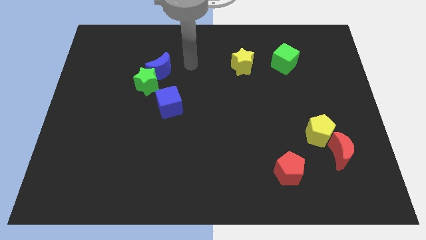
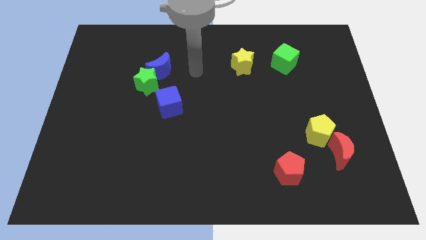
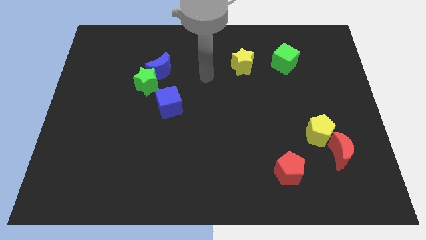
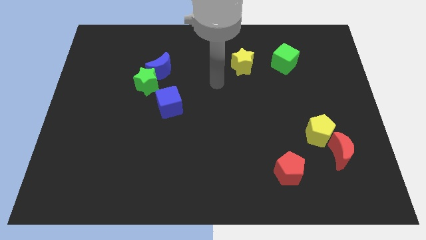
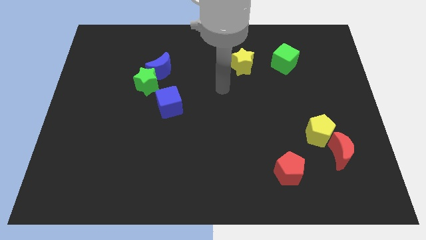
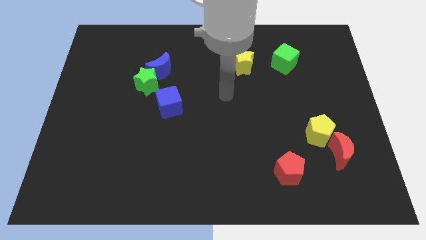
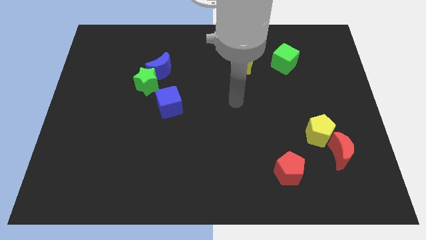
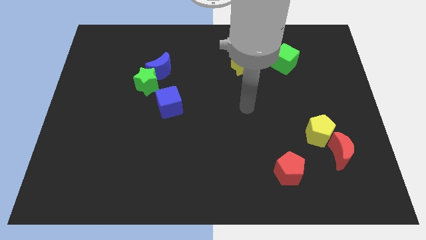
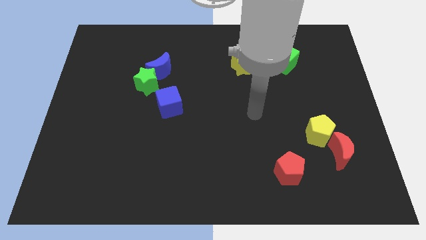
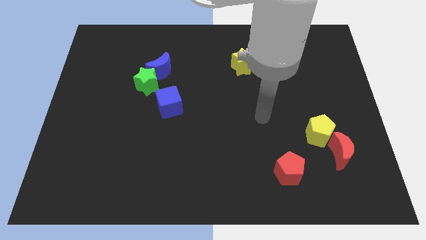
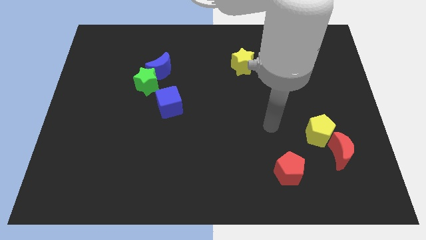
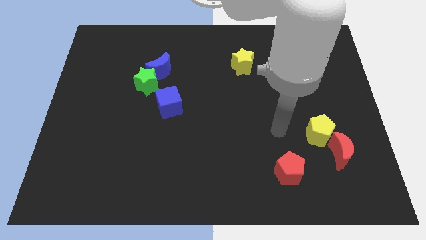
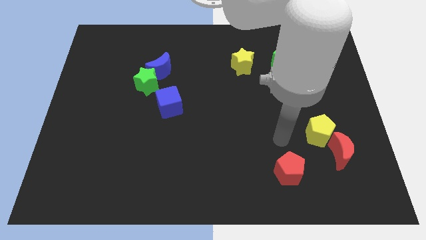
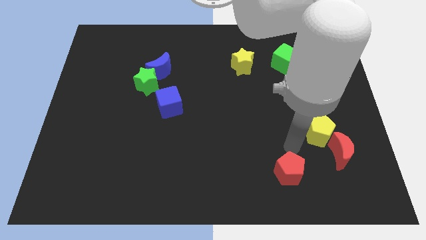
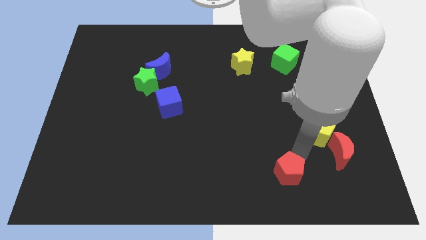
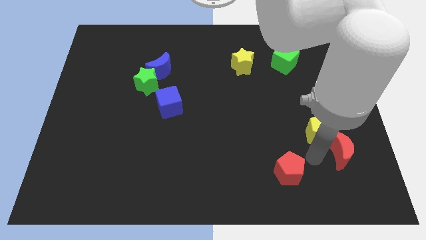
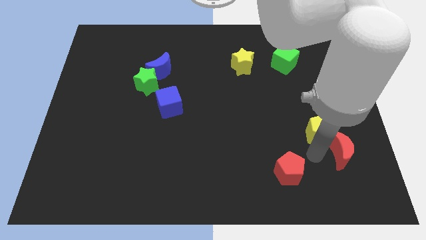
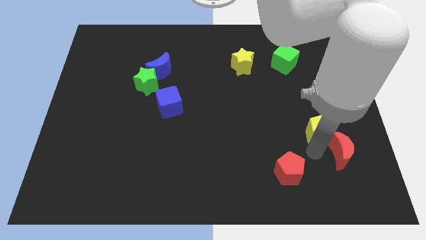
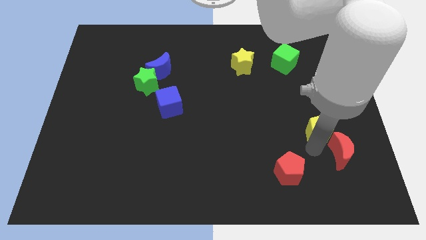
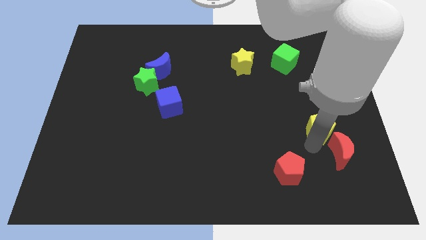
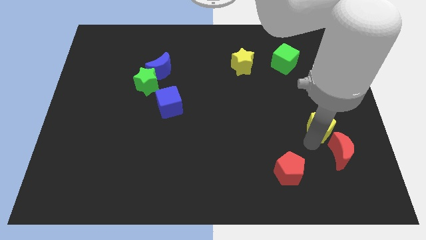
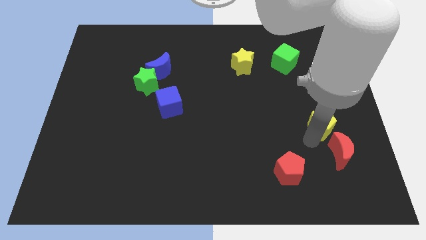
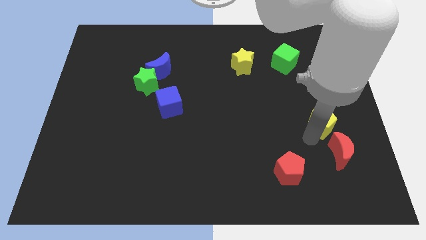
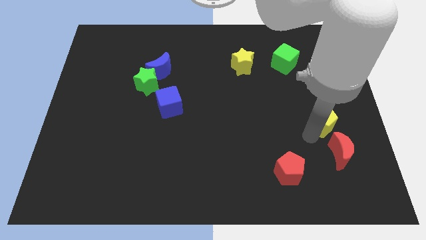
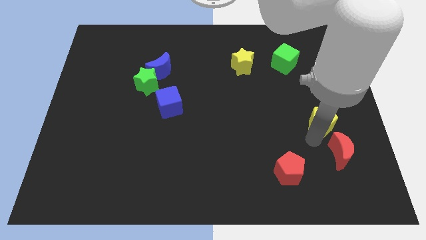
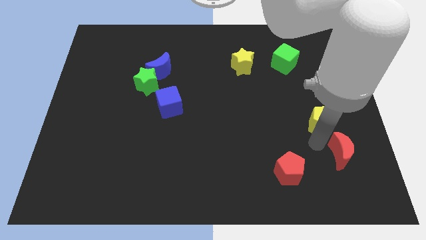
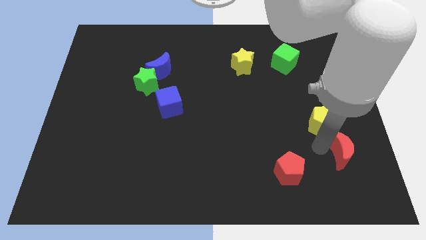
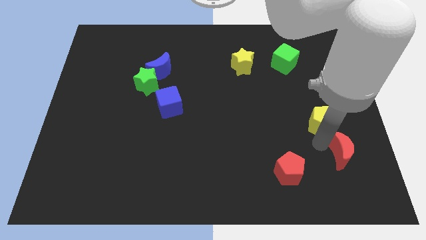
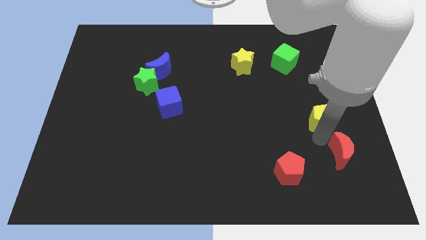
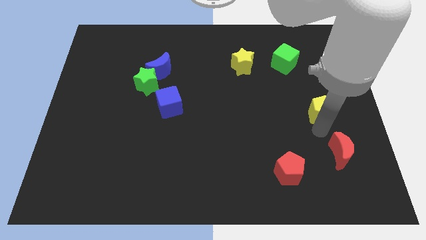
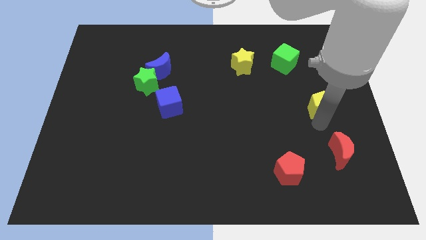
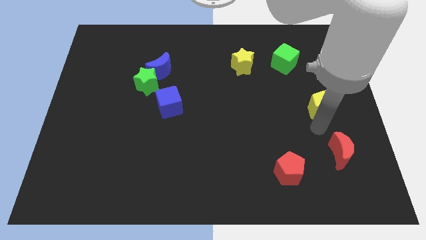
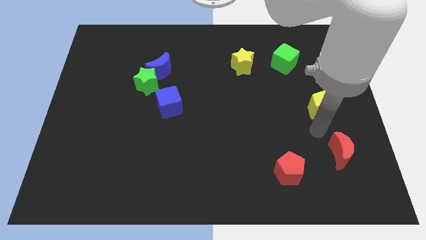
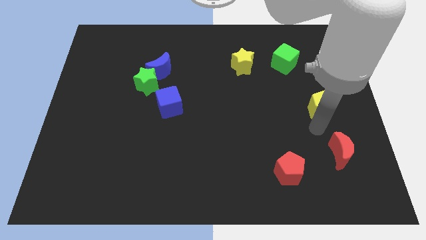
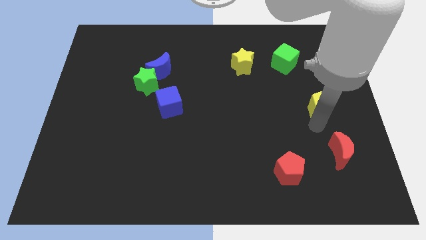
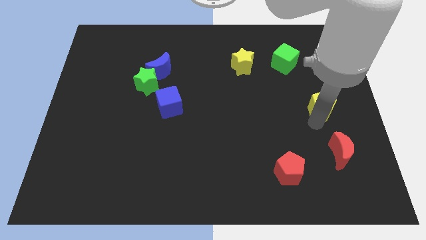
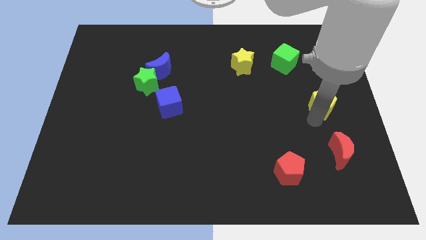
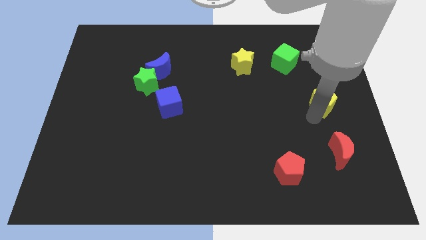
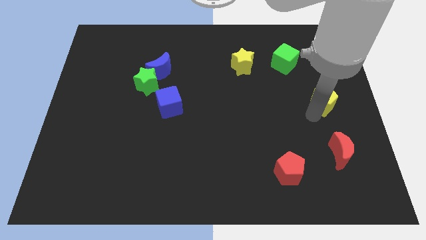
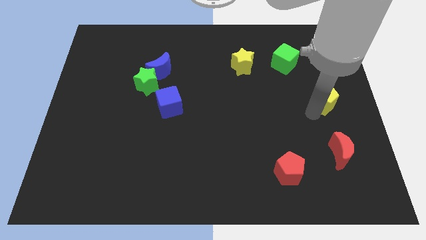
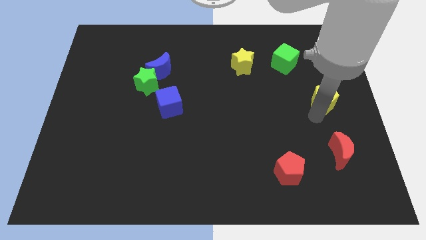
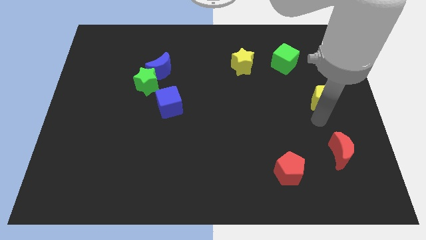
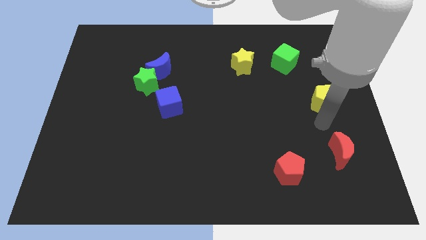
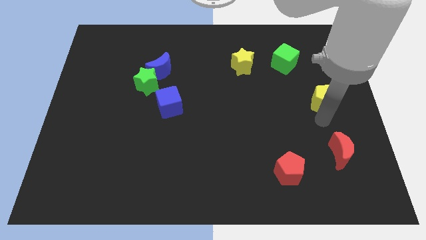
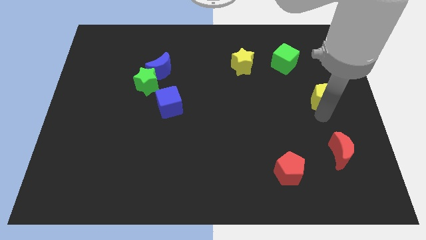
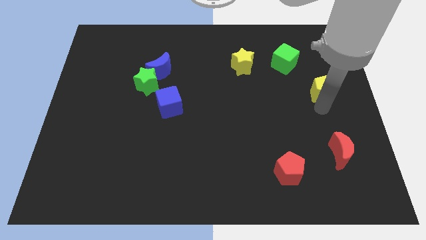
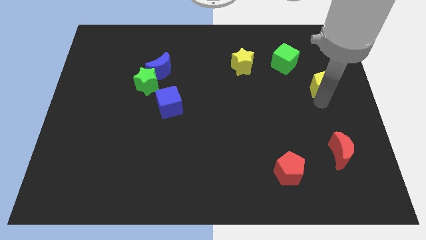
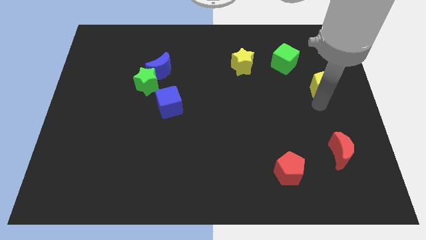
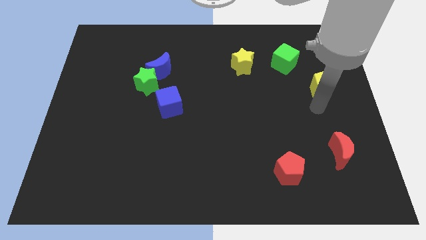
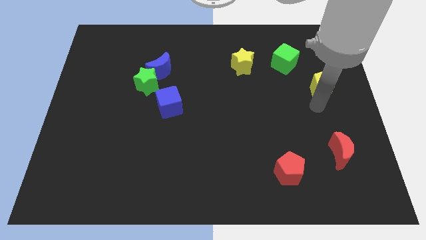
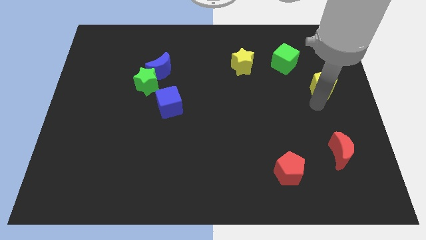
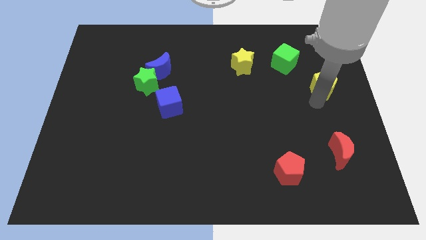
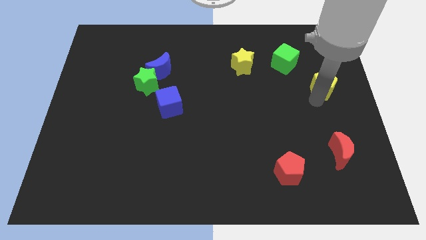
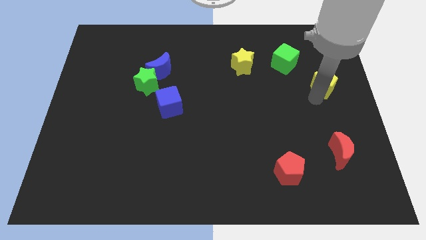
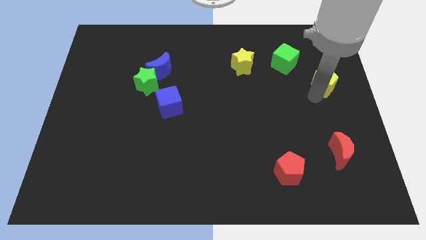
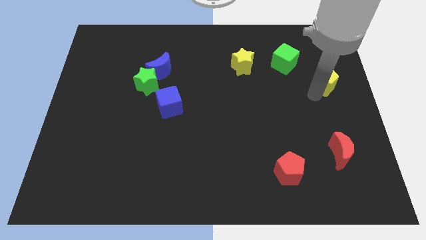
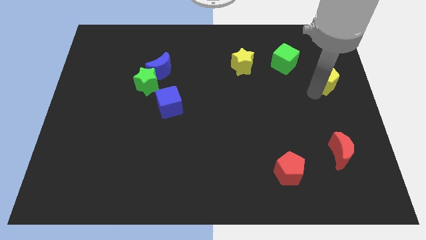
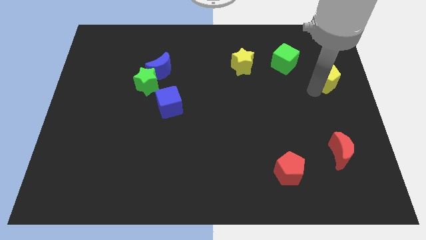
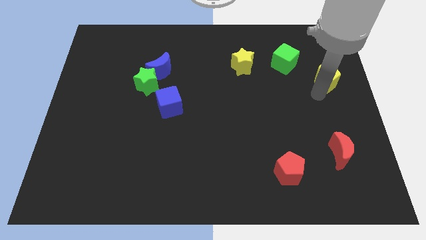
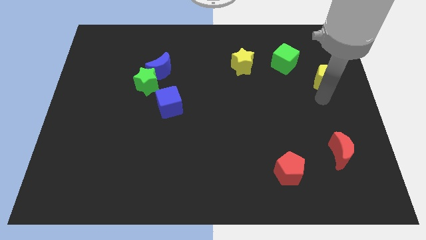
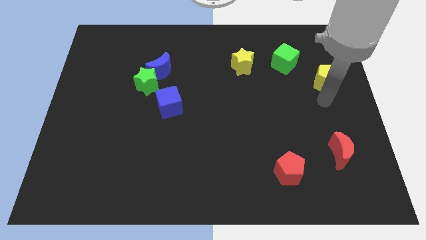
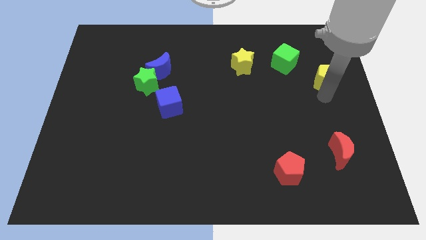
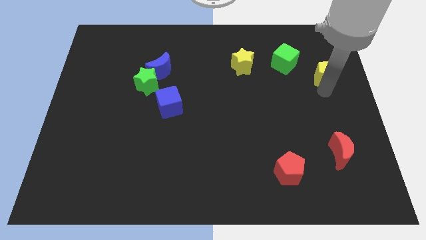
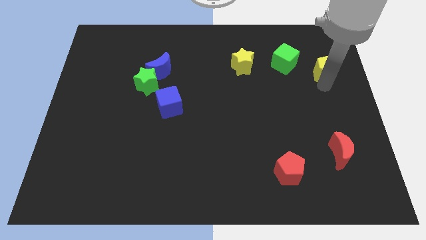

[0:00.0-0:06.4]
push the yellow pentagon to the right side of the green cube
